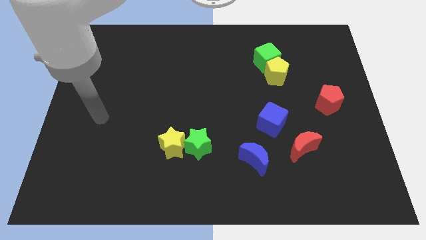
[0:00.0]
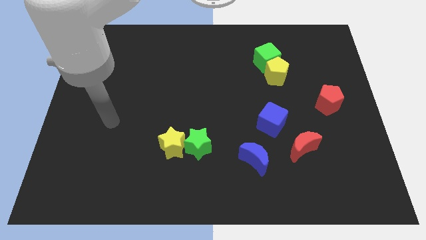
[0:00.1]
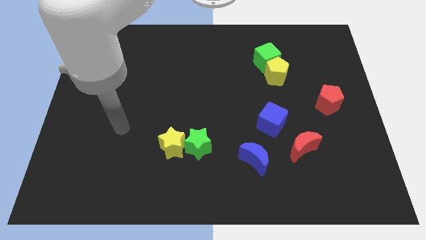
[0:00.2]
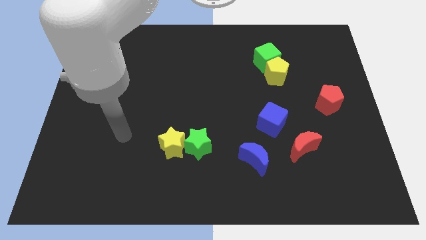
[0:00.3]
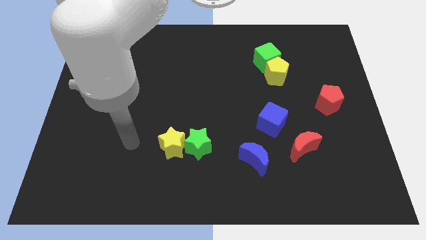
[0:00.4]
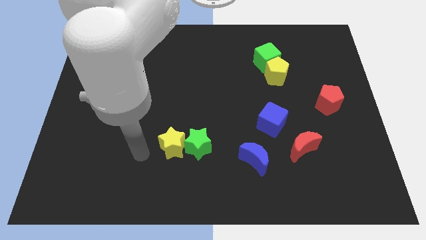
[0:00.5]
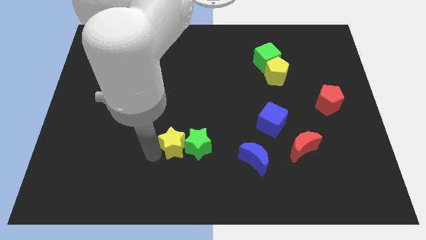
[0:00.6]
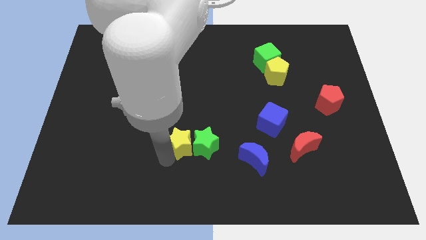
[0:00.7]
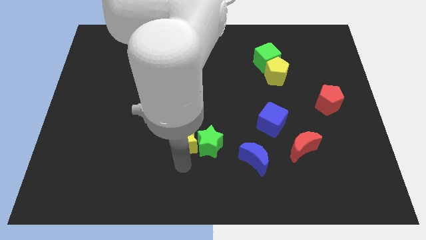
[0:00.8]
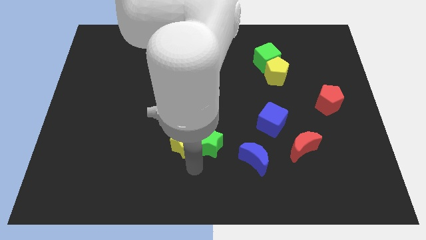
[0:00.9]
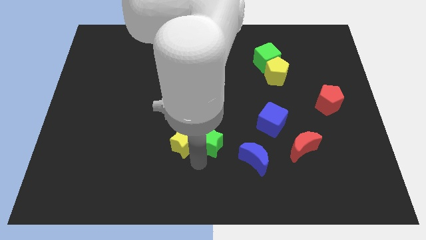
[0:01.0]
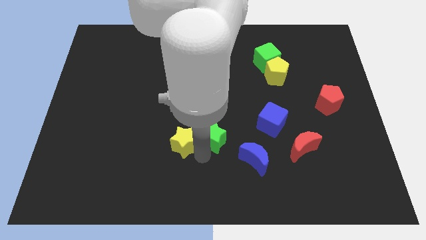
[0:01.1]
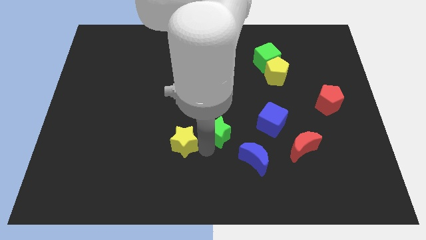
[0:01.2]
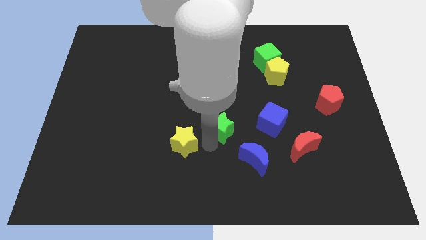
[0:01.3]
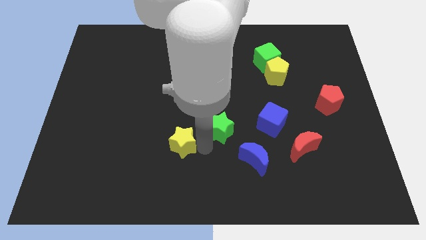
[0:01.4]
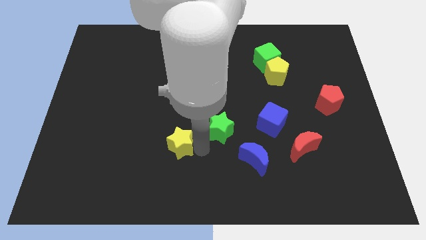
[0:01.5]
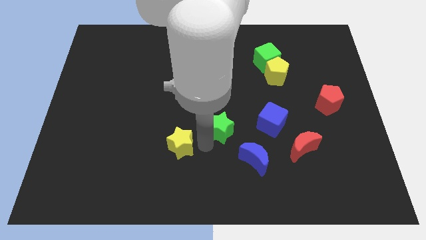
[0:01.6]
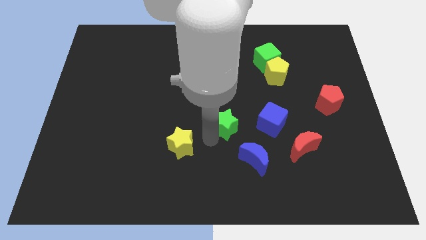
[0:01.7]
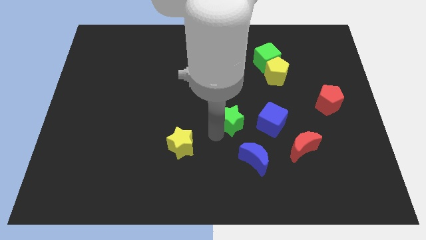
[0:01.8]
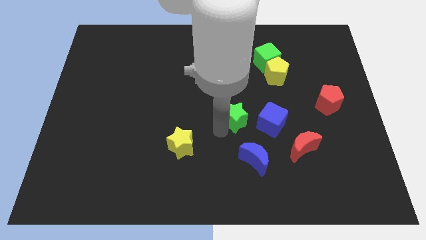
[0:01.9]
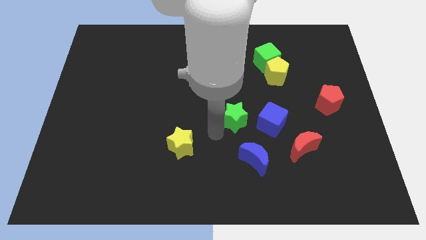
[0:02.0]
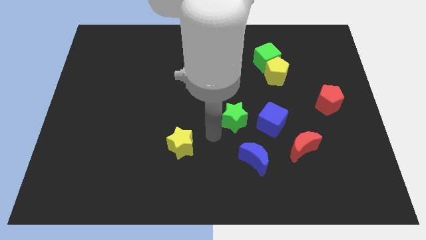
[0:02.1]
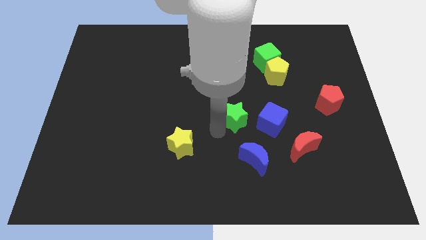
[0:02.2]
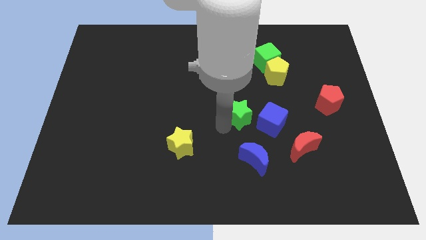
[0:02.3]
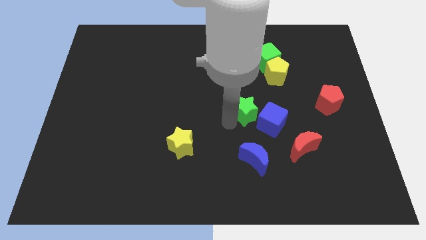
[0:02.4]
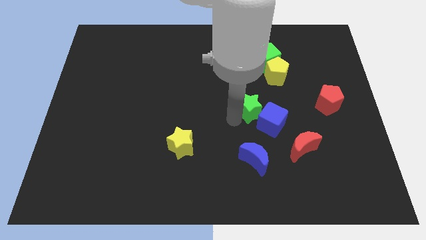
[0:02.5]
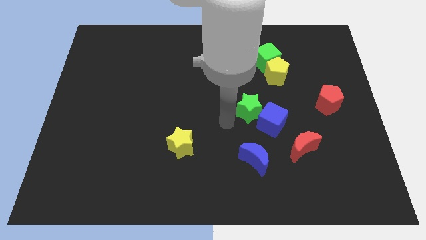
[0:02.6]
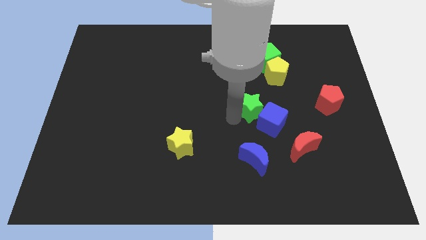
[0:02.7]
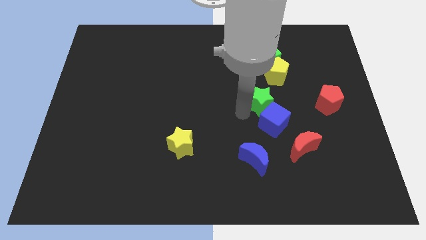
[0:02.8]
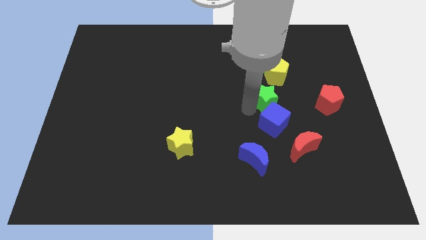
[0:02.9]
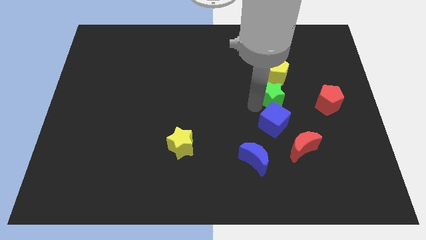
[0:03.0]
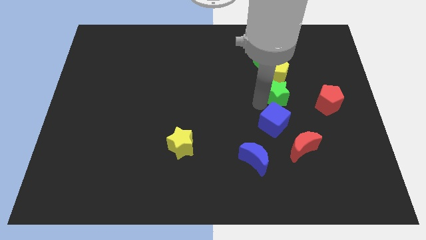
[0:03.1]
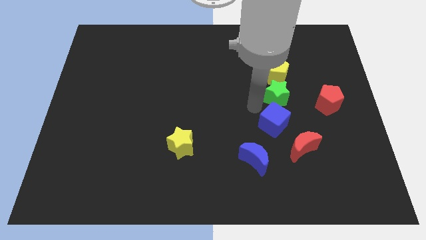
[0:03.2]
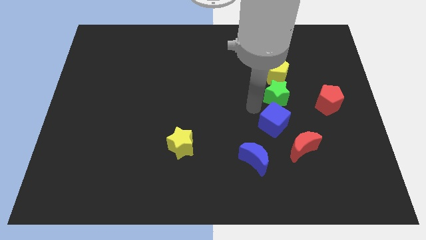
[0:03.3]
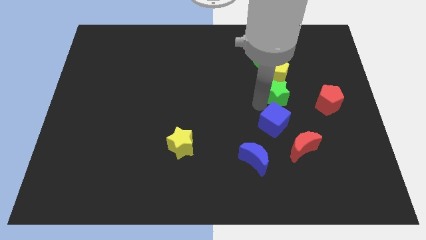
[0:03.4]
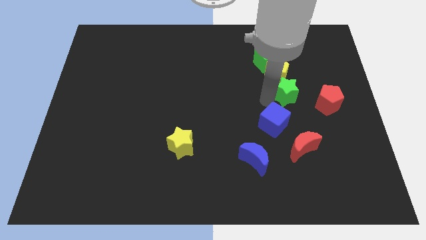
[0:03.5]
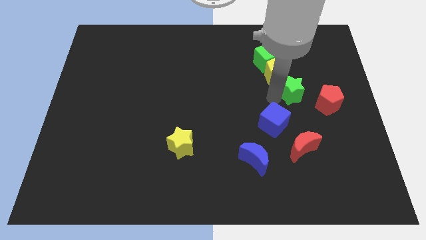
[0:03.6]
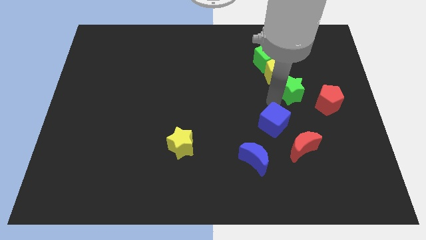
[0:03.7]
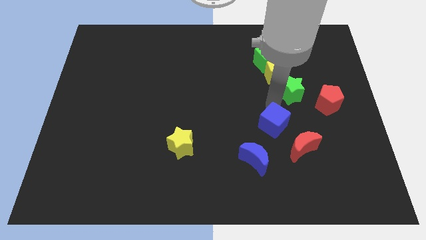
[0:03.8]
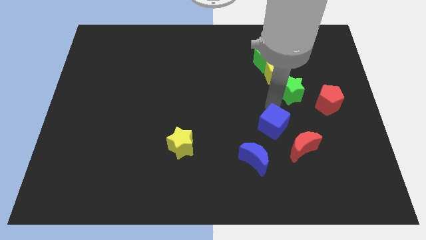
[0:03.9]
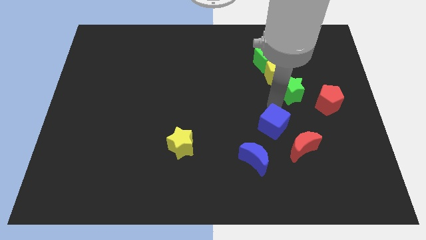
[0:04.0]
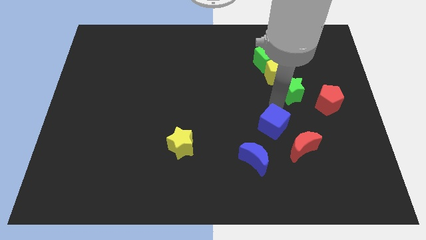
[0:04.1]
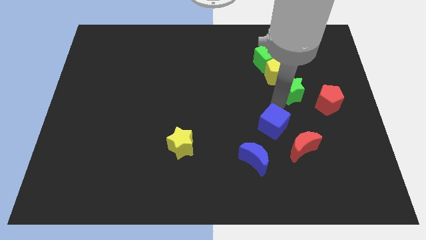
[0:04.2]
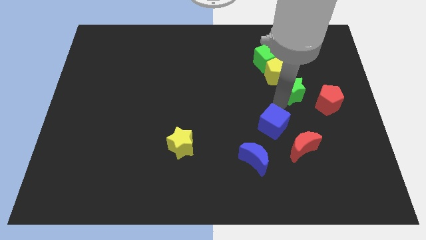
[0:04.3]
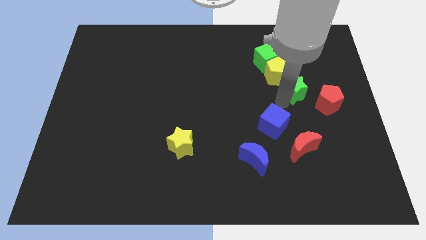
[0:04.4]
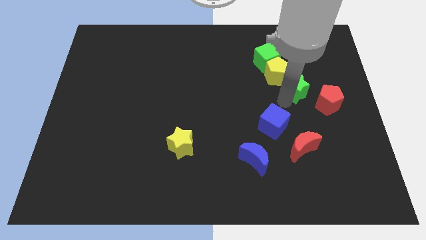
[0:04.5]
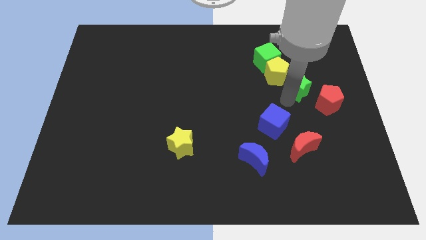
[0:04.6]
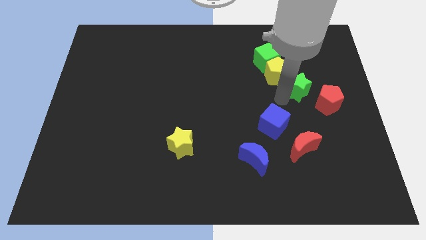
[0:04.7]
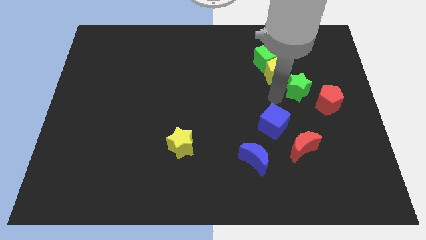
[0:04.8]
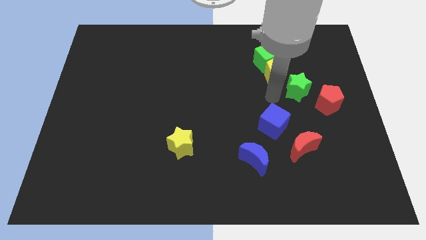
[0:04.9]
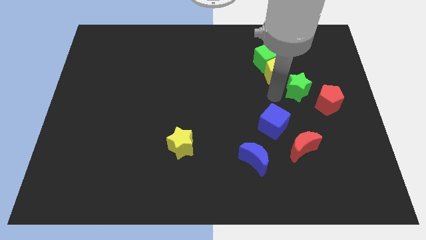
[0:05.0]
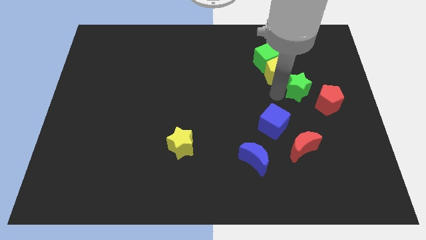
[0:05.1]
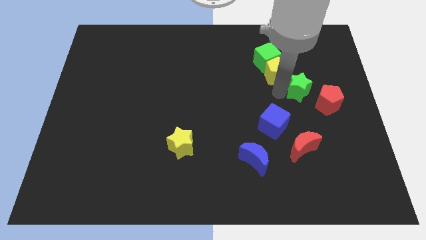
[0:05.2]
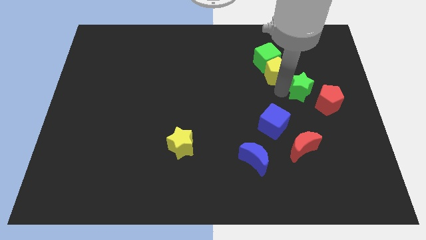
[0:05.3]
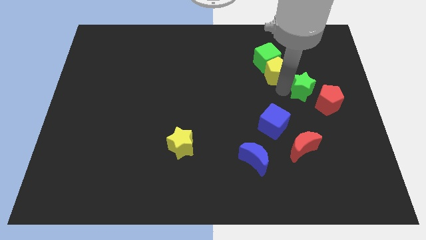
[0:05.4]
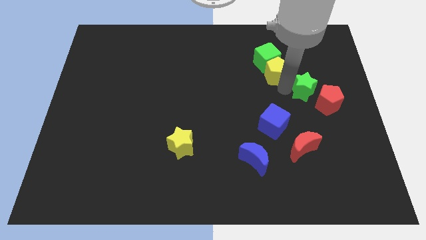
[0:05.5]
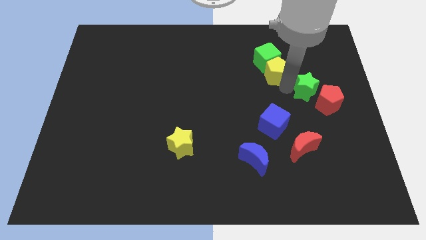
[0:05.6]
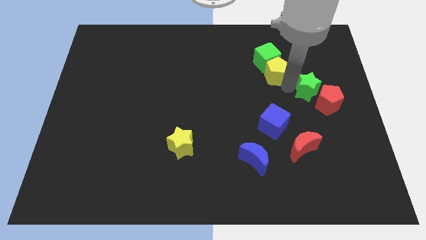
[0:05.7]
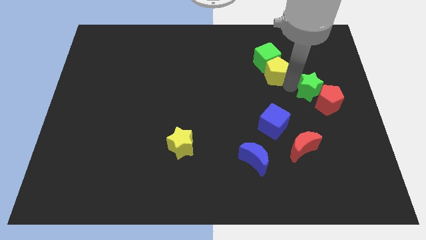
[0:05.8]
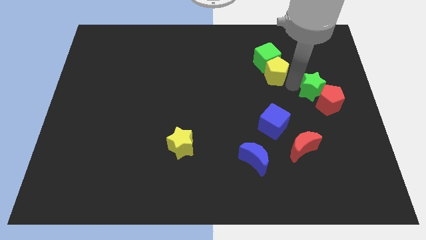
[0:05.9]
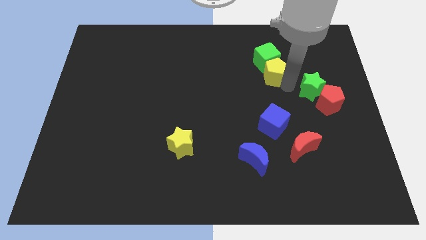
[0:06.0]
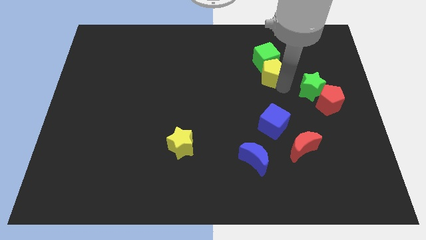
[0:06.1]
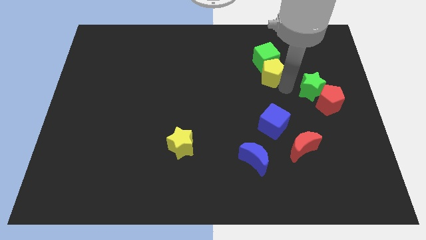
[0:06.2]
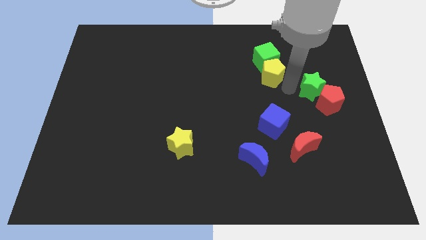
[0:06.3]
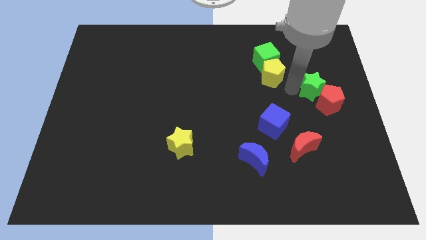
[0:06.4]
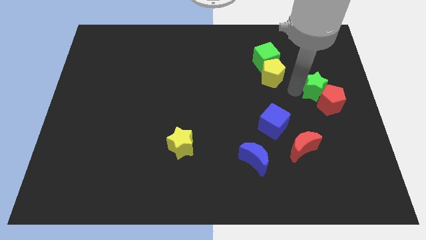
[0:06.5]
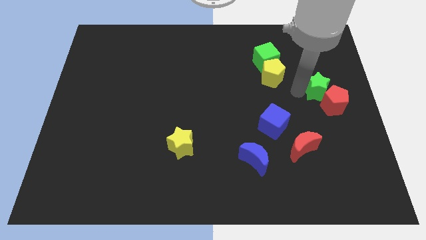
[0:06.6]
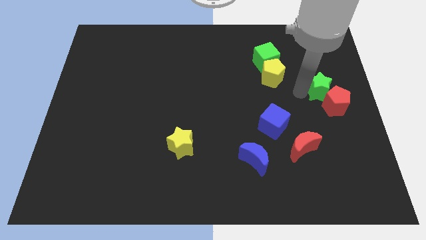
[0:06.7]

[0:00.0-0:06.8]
slide the green star to the right side of the board
